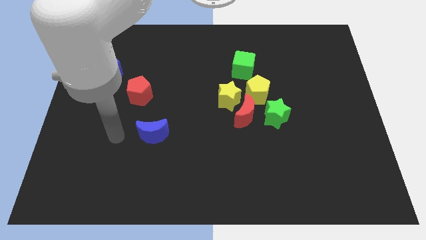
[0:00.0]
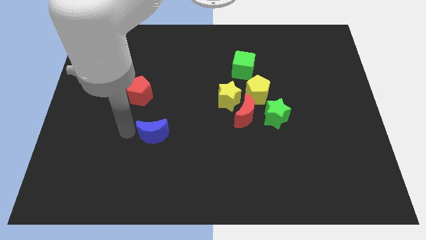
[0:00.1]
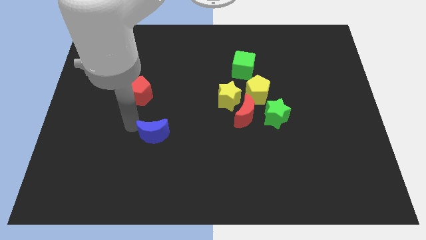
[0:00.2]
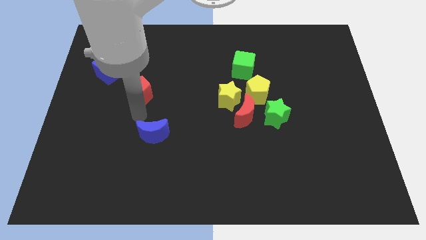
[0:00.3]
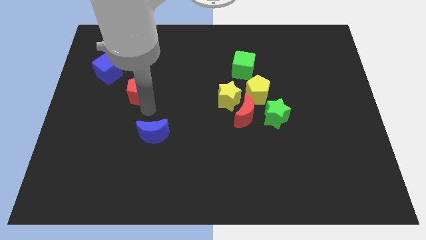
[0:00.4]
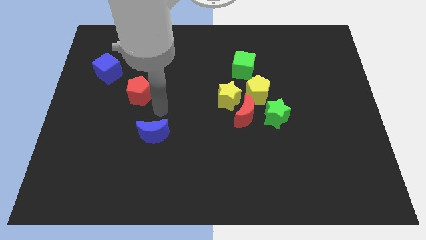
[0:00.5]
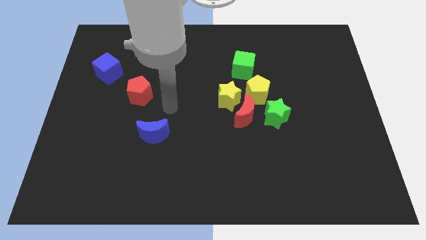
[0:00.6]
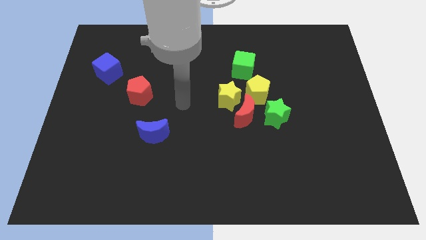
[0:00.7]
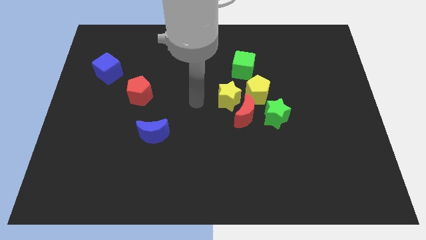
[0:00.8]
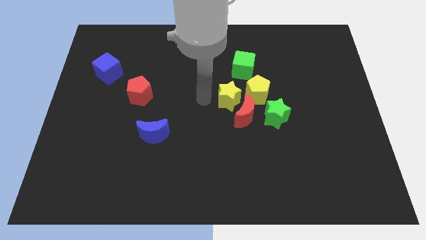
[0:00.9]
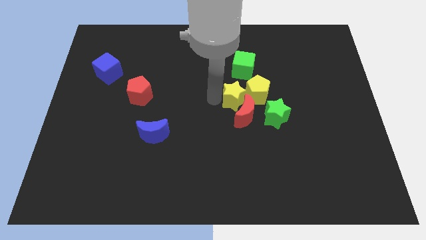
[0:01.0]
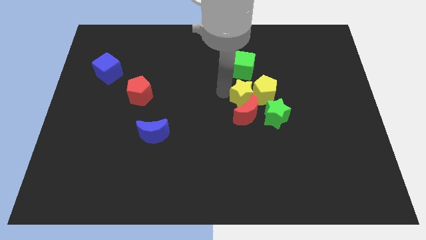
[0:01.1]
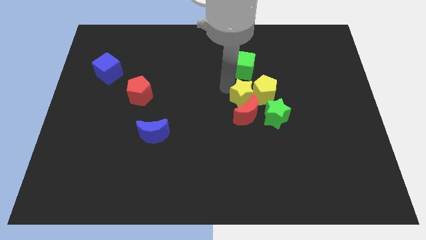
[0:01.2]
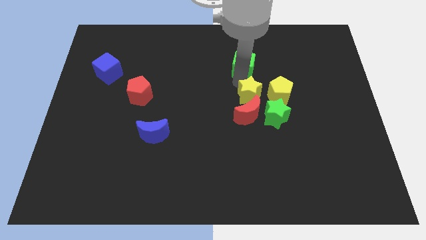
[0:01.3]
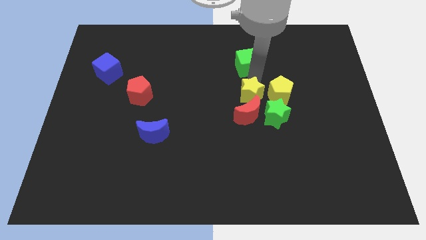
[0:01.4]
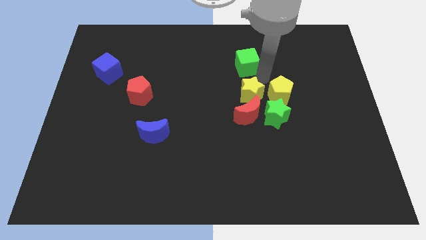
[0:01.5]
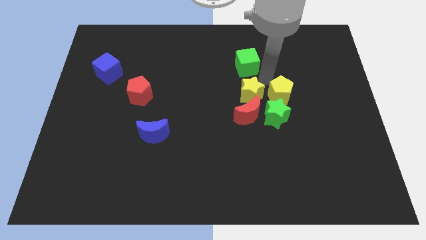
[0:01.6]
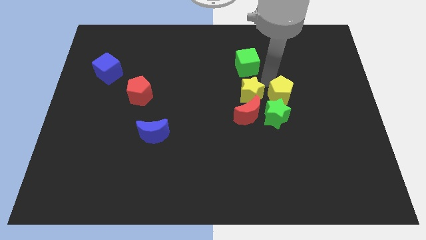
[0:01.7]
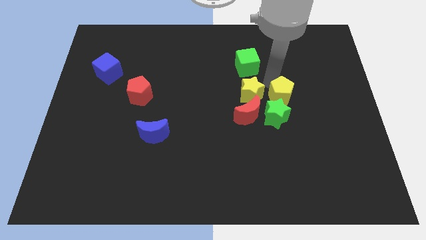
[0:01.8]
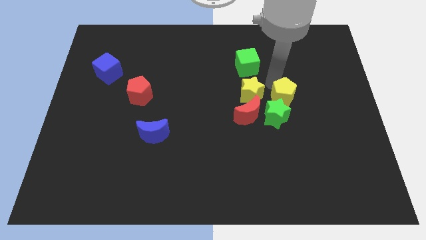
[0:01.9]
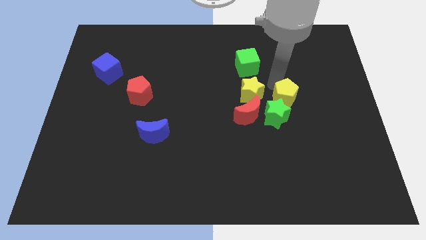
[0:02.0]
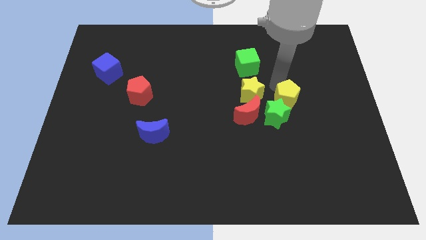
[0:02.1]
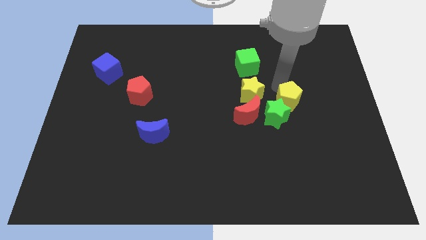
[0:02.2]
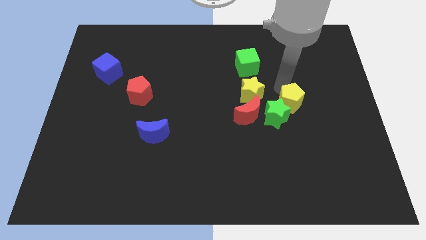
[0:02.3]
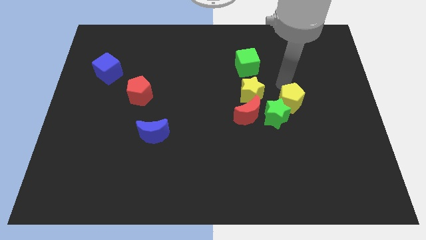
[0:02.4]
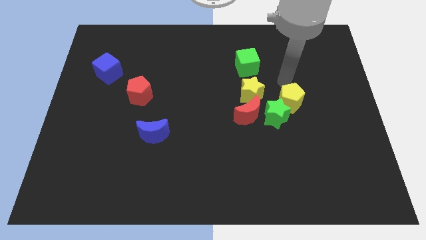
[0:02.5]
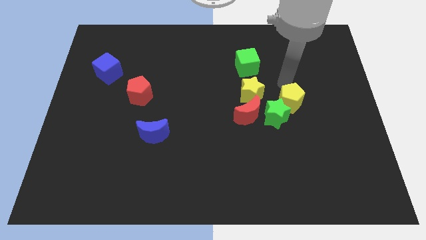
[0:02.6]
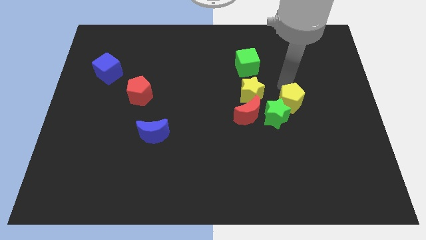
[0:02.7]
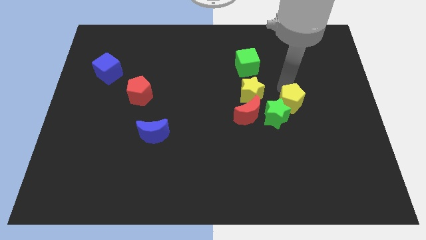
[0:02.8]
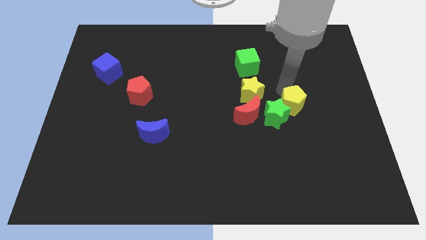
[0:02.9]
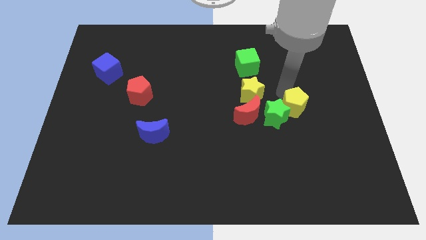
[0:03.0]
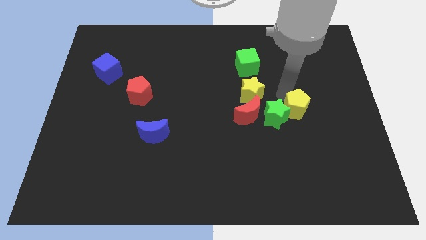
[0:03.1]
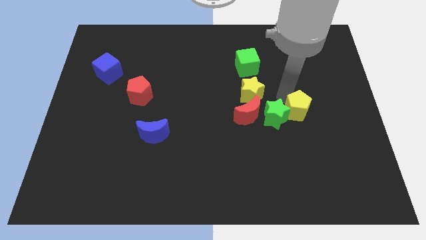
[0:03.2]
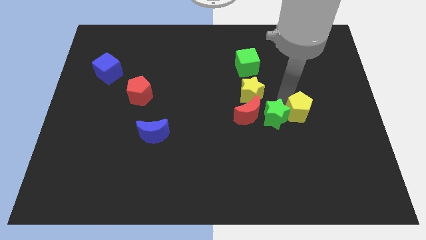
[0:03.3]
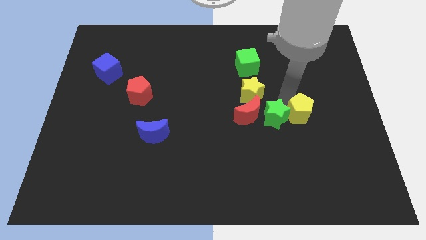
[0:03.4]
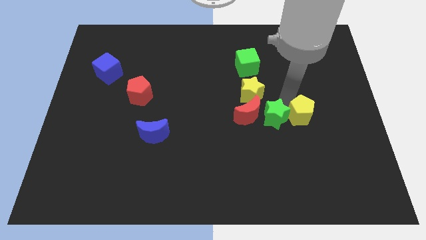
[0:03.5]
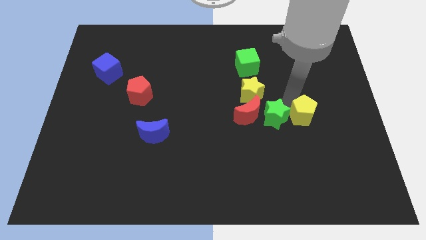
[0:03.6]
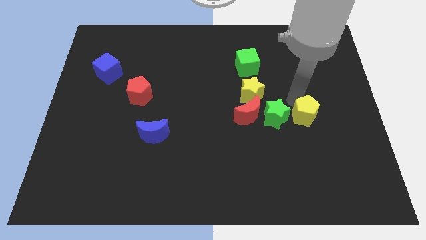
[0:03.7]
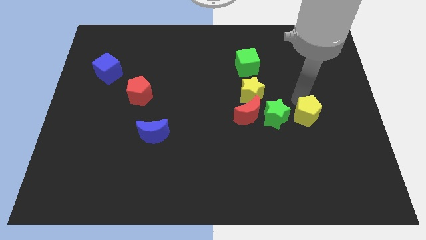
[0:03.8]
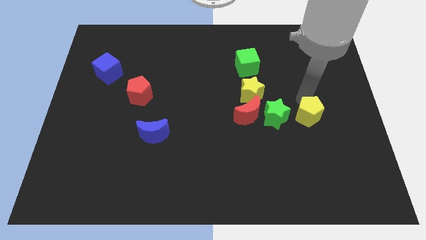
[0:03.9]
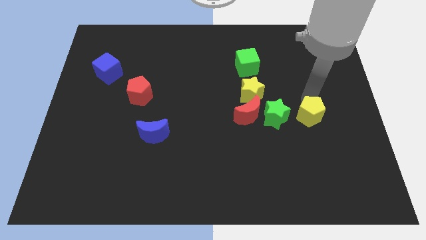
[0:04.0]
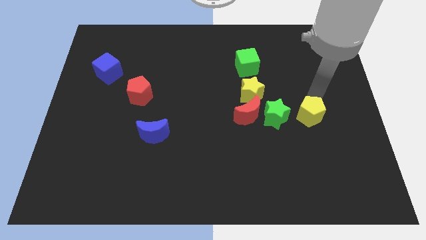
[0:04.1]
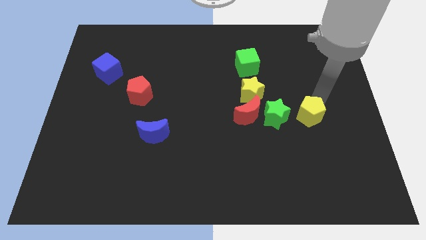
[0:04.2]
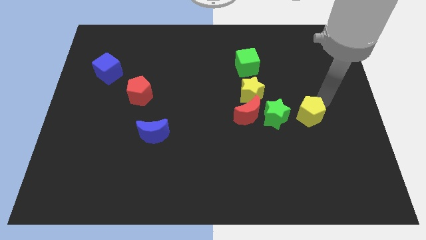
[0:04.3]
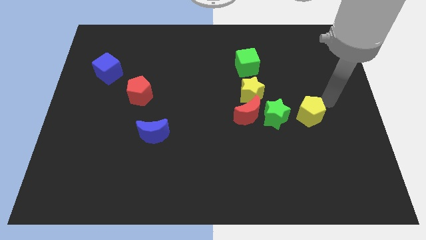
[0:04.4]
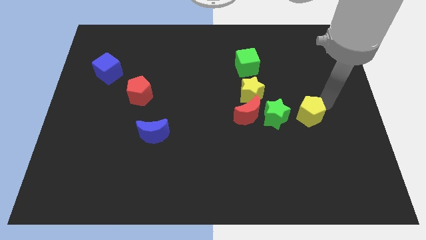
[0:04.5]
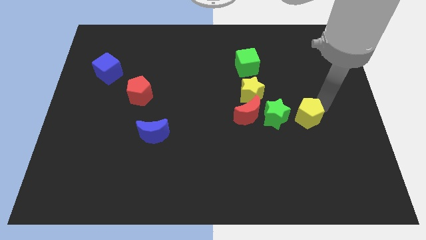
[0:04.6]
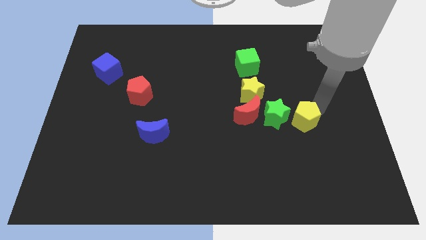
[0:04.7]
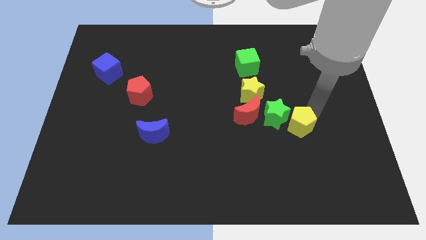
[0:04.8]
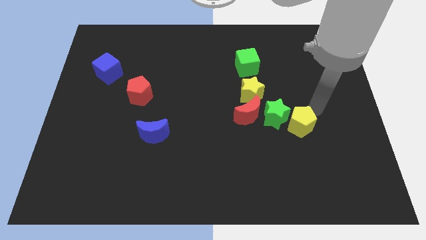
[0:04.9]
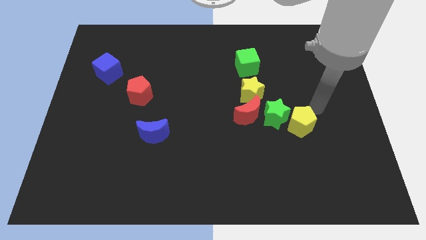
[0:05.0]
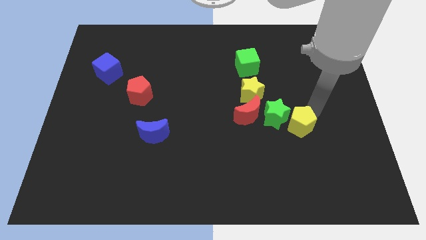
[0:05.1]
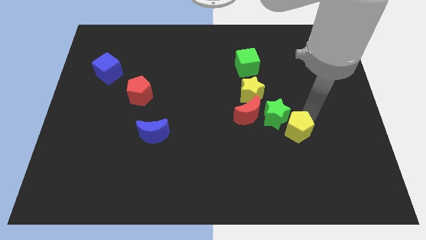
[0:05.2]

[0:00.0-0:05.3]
move the yellow pentagon downwards a bit

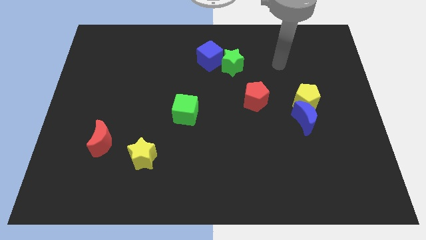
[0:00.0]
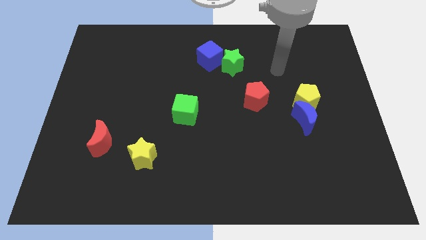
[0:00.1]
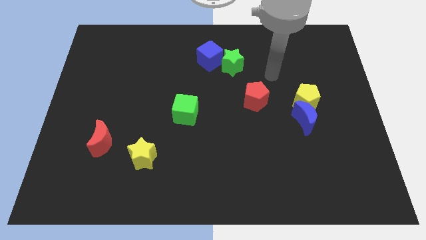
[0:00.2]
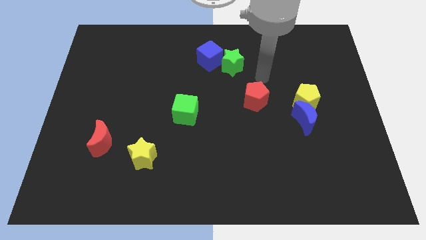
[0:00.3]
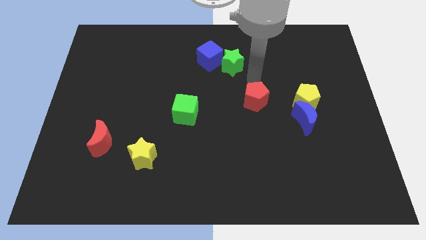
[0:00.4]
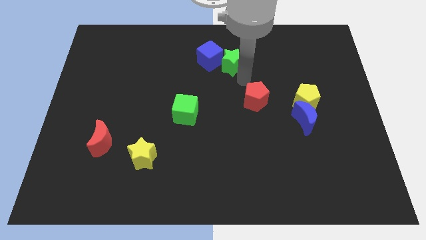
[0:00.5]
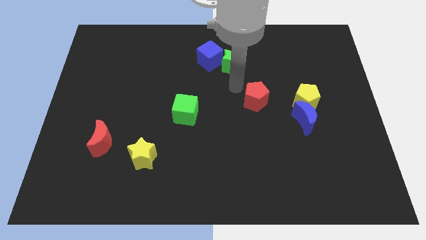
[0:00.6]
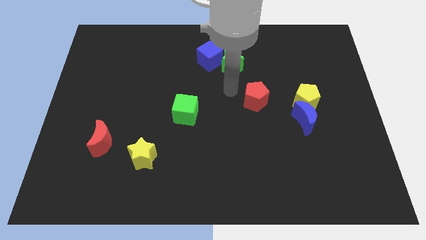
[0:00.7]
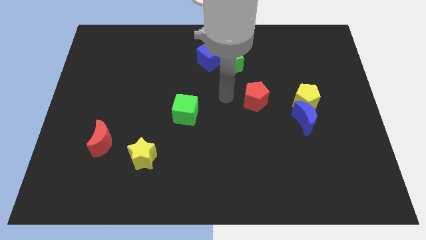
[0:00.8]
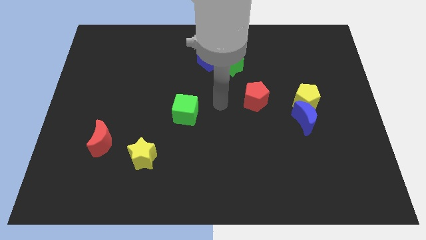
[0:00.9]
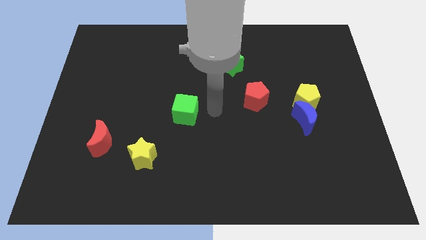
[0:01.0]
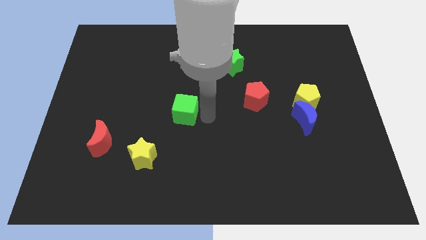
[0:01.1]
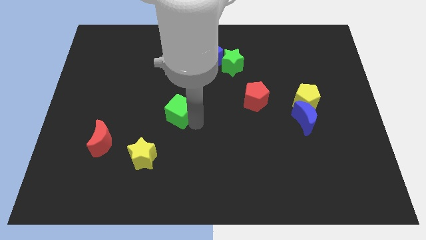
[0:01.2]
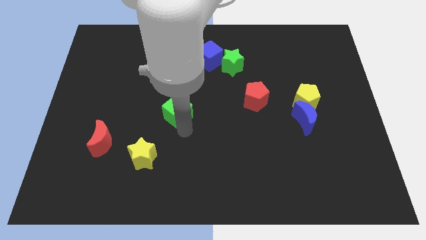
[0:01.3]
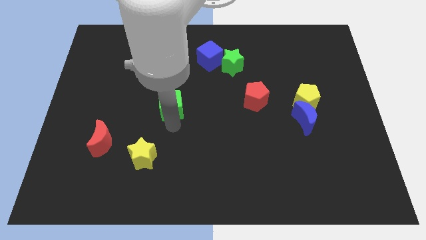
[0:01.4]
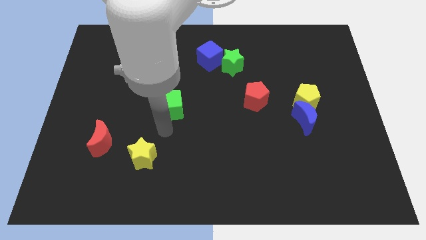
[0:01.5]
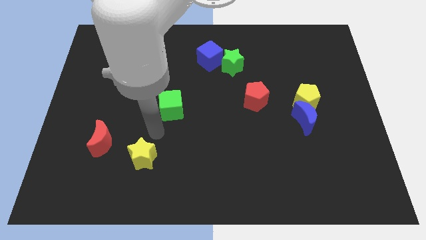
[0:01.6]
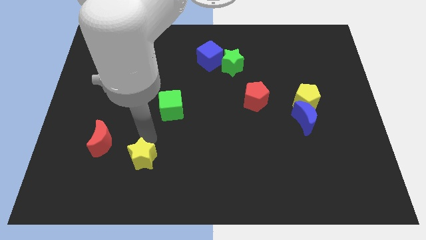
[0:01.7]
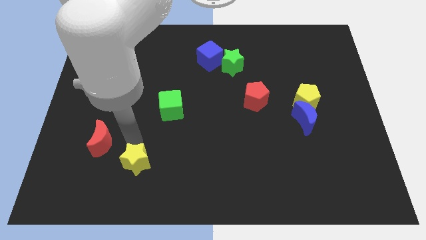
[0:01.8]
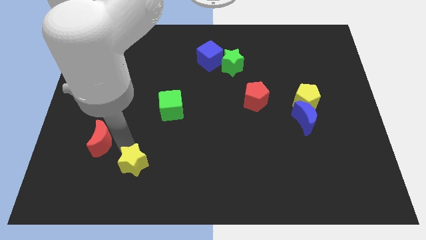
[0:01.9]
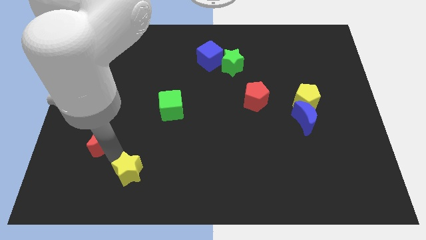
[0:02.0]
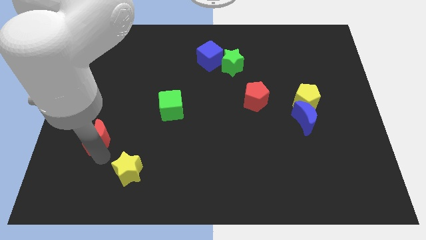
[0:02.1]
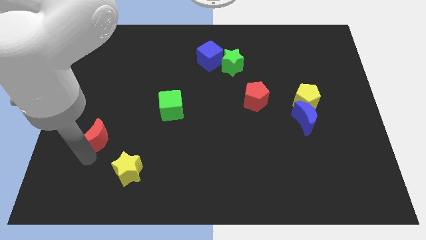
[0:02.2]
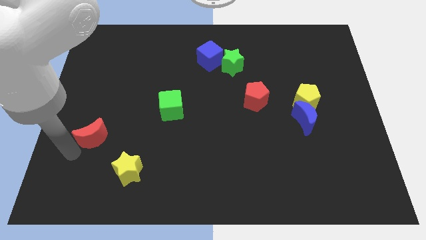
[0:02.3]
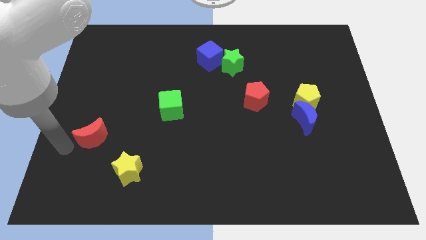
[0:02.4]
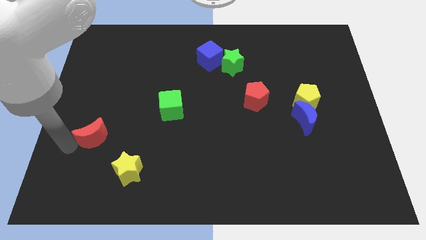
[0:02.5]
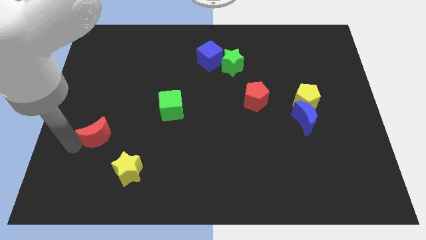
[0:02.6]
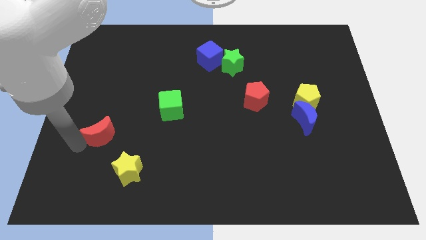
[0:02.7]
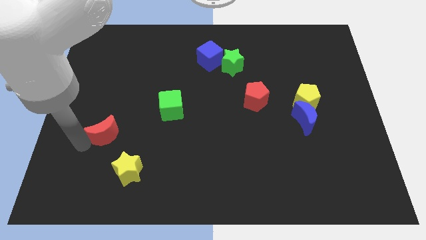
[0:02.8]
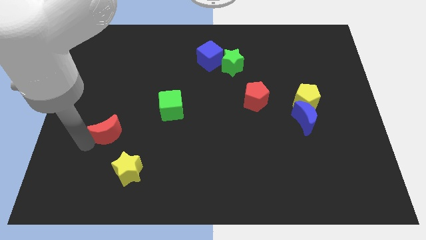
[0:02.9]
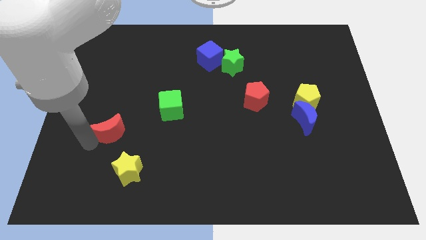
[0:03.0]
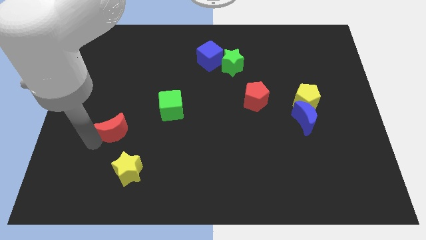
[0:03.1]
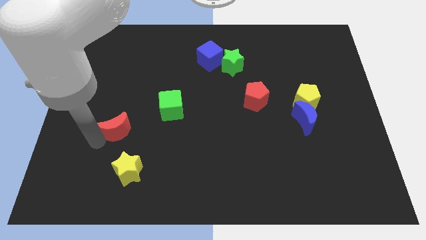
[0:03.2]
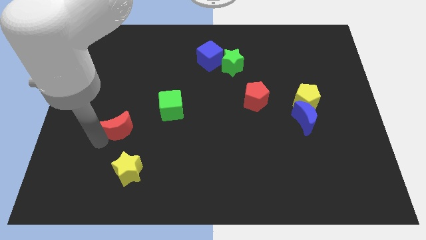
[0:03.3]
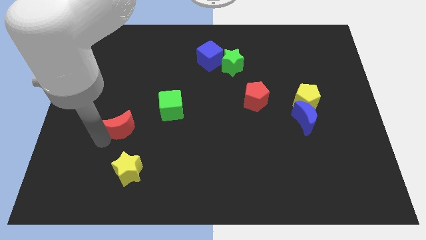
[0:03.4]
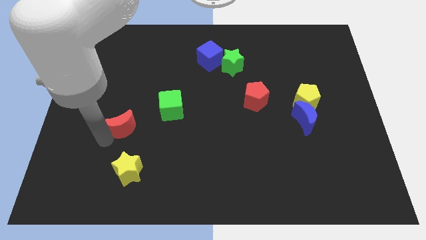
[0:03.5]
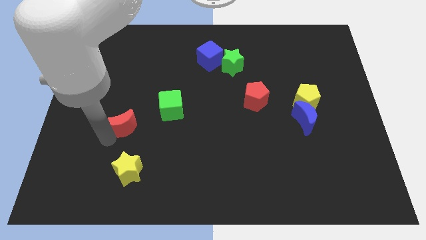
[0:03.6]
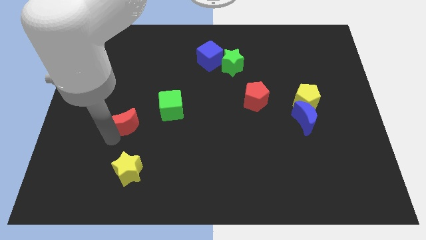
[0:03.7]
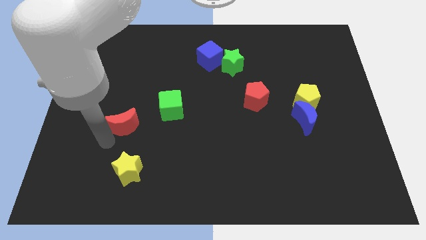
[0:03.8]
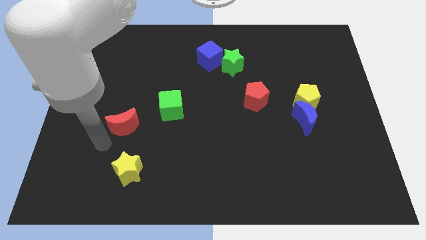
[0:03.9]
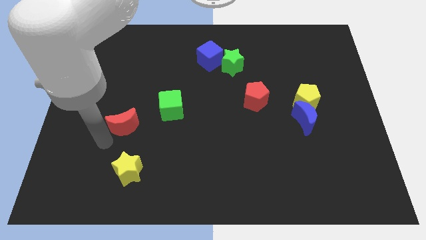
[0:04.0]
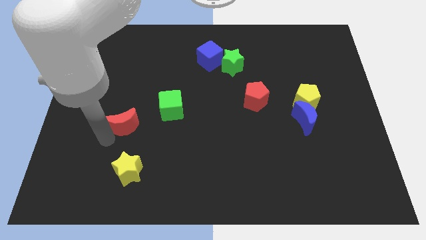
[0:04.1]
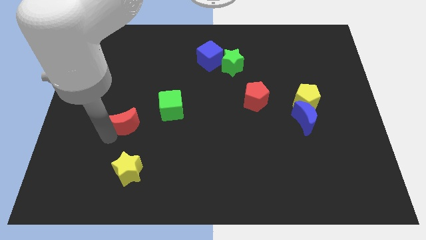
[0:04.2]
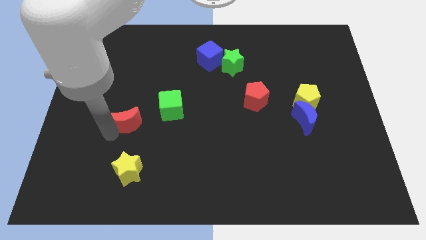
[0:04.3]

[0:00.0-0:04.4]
slightly push the red moon diagonally up and to the right
